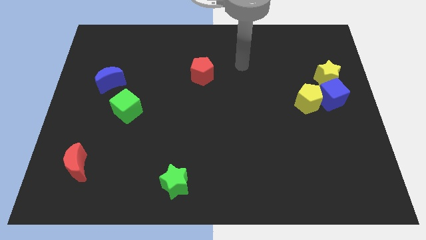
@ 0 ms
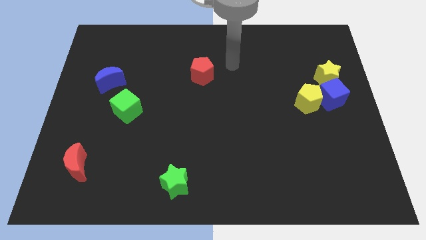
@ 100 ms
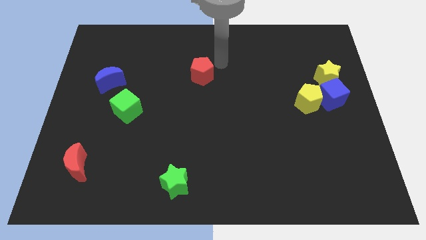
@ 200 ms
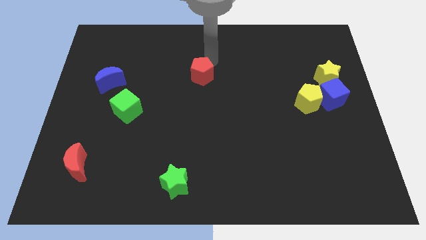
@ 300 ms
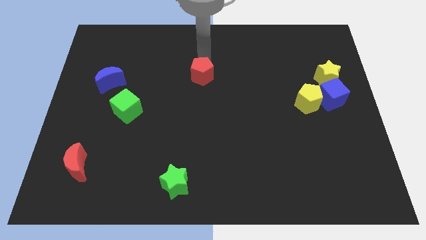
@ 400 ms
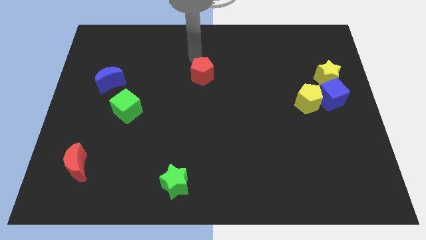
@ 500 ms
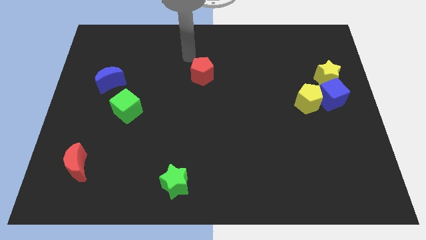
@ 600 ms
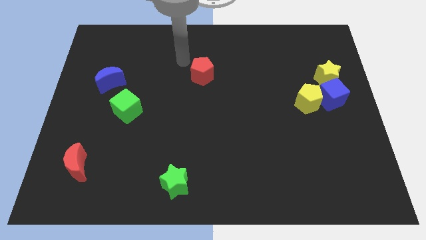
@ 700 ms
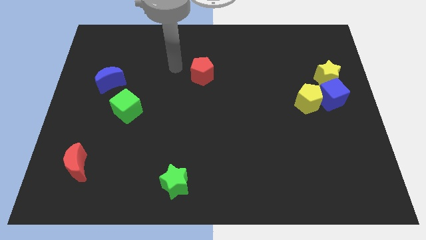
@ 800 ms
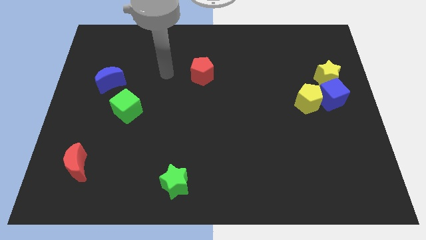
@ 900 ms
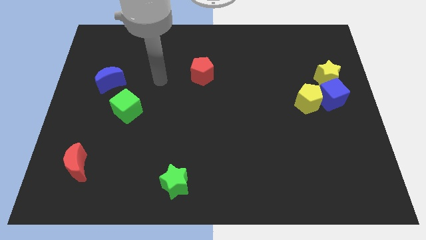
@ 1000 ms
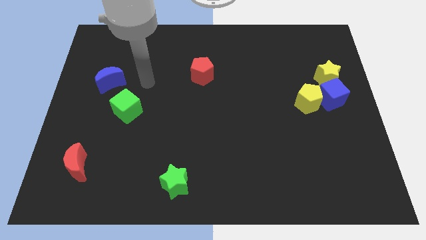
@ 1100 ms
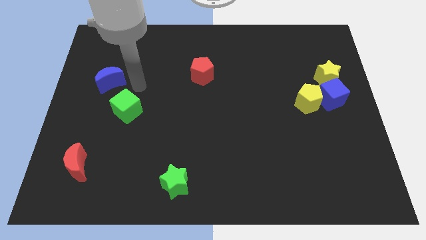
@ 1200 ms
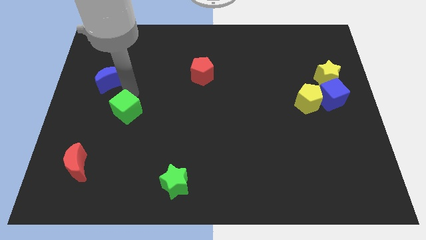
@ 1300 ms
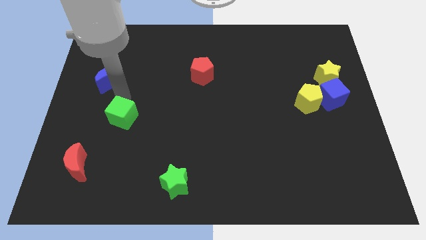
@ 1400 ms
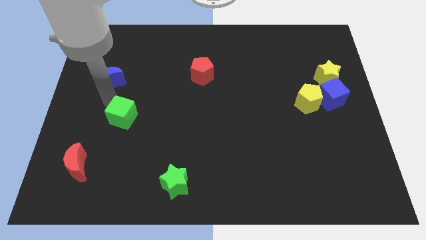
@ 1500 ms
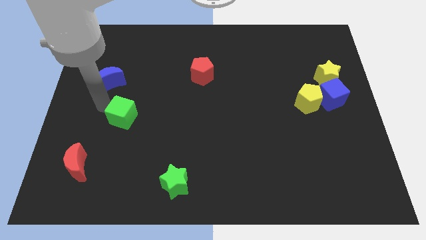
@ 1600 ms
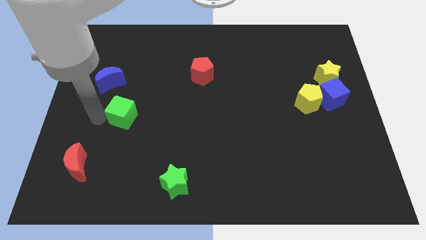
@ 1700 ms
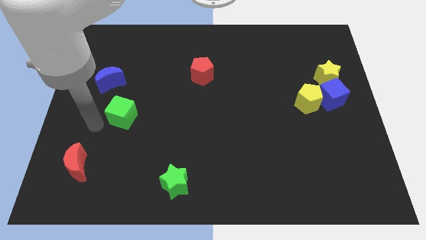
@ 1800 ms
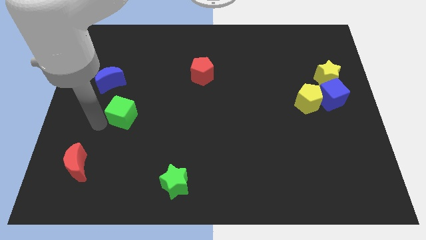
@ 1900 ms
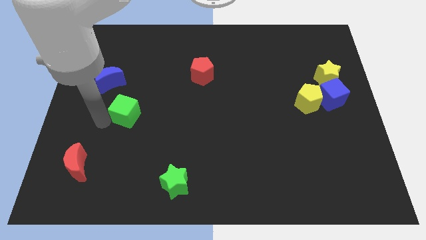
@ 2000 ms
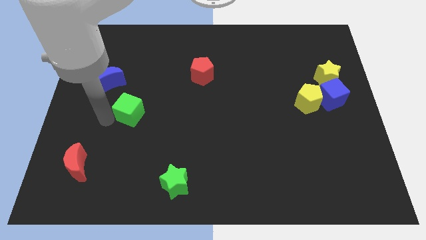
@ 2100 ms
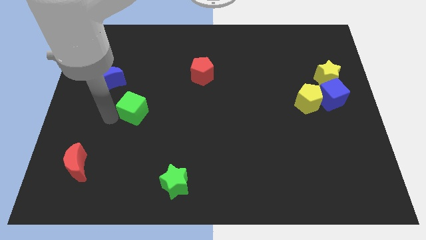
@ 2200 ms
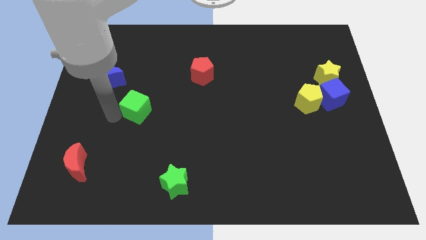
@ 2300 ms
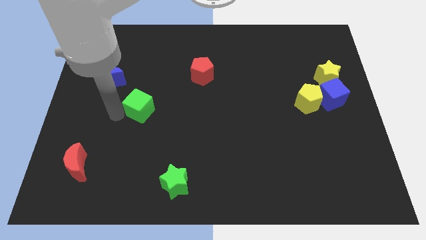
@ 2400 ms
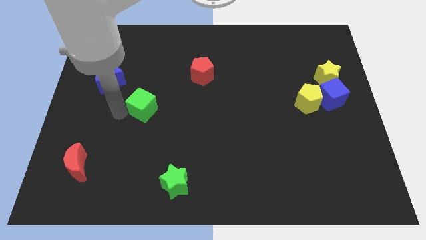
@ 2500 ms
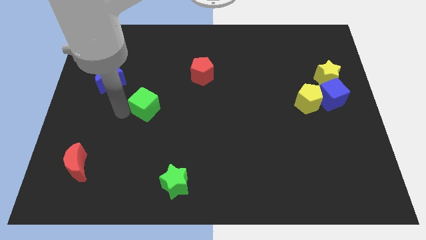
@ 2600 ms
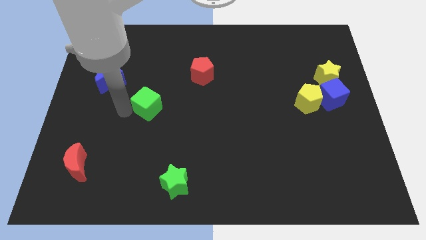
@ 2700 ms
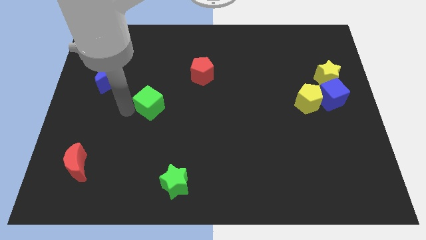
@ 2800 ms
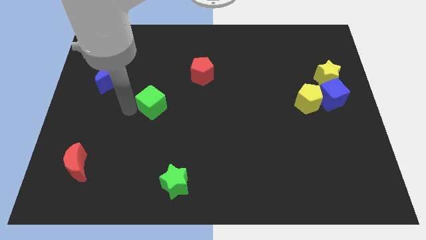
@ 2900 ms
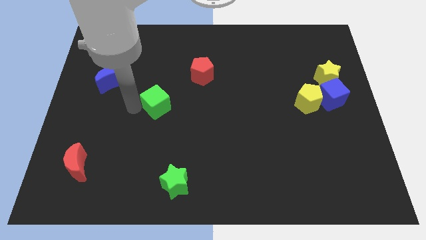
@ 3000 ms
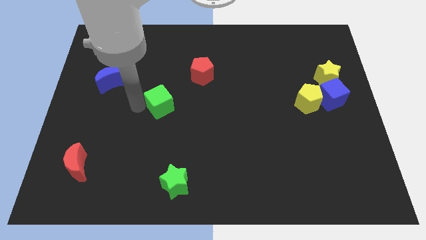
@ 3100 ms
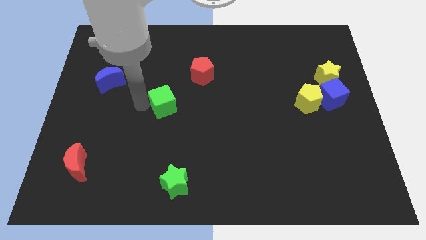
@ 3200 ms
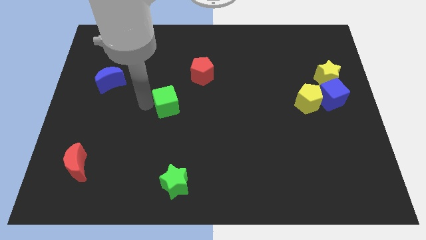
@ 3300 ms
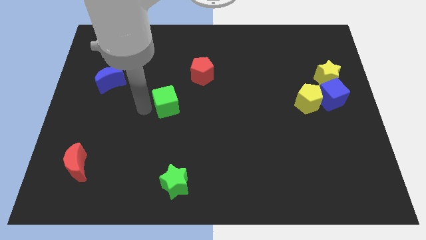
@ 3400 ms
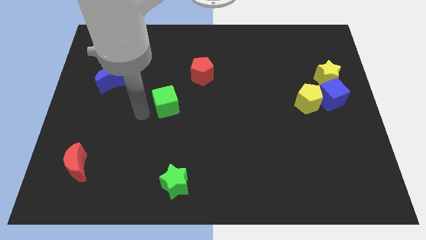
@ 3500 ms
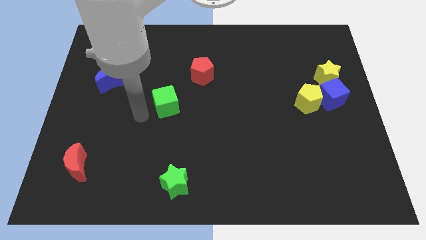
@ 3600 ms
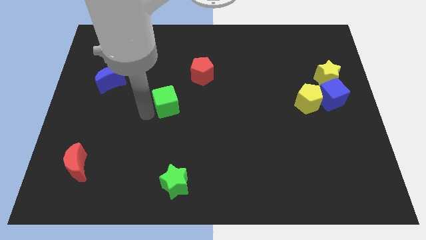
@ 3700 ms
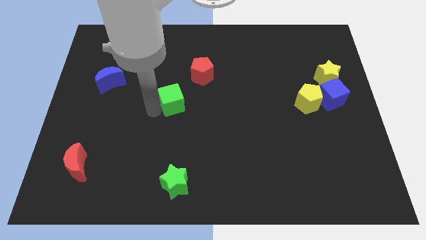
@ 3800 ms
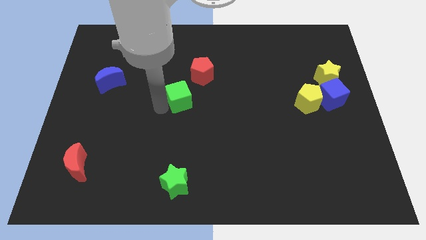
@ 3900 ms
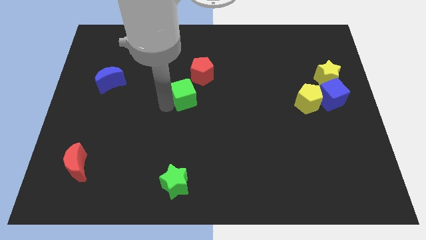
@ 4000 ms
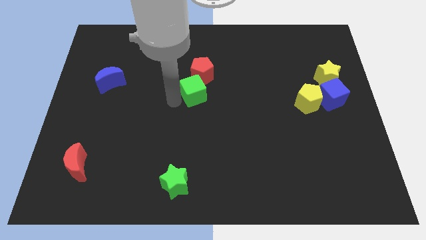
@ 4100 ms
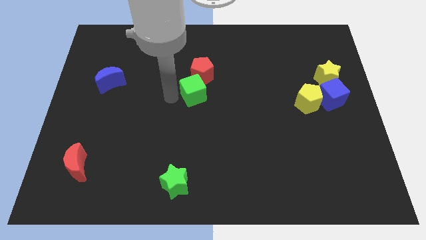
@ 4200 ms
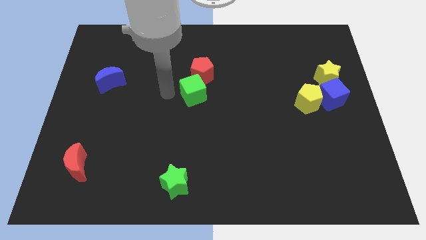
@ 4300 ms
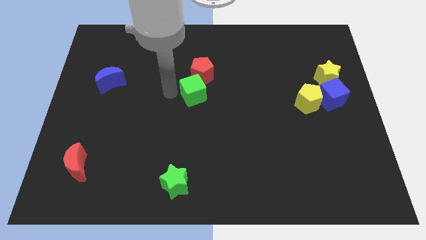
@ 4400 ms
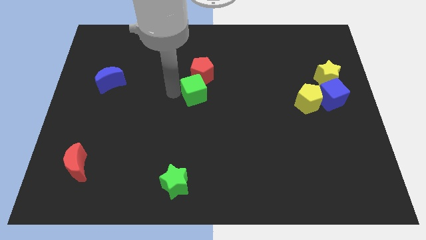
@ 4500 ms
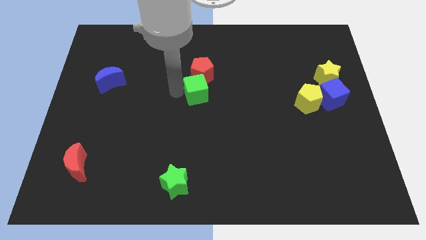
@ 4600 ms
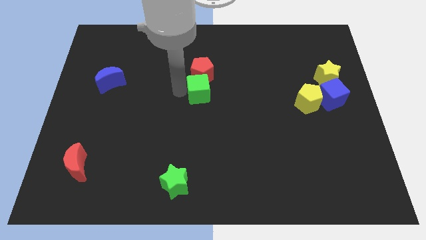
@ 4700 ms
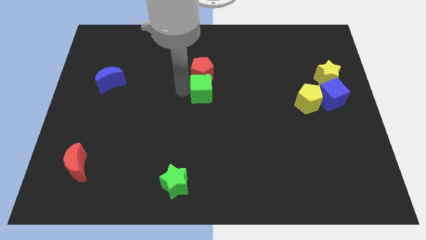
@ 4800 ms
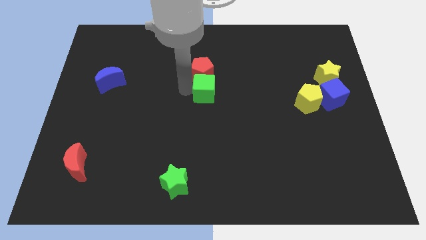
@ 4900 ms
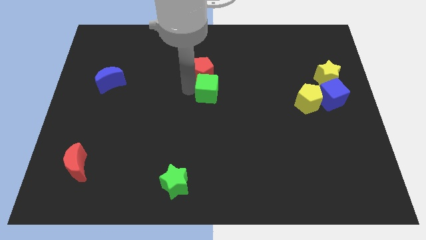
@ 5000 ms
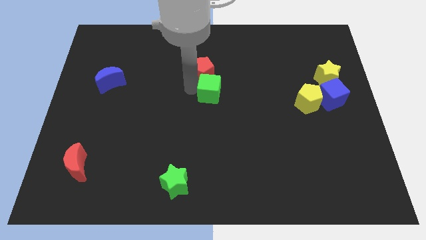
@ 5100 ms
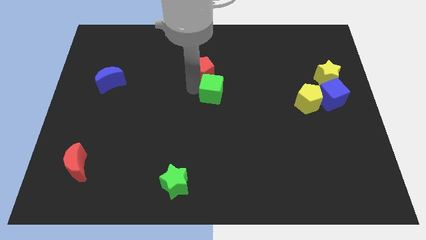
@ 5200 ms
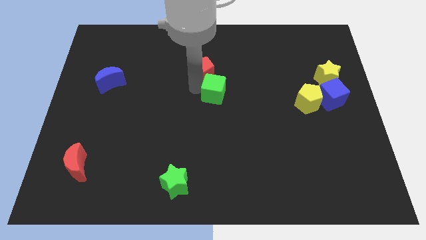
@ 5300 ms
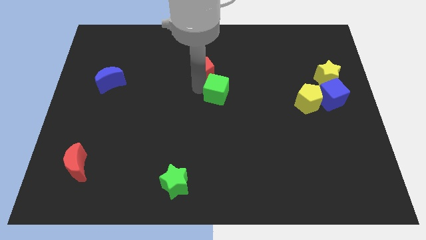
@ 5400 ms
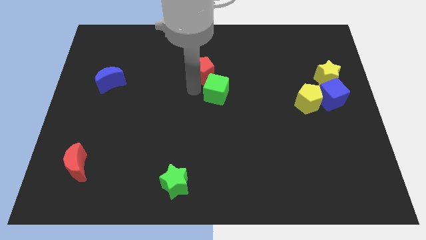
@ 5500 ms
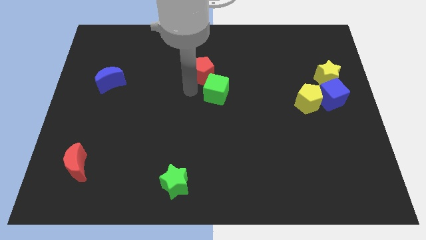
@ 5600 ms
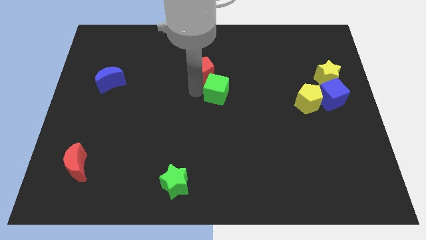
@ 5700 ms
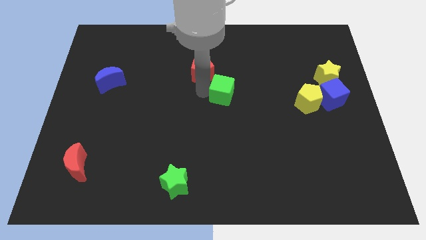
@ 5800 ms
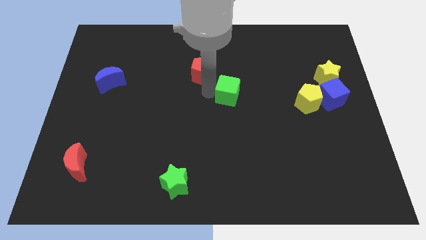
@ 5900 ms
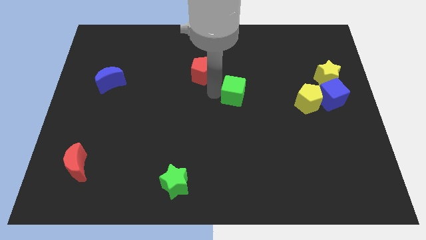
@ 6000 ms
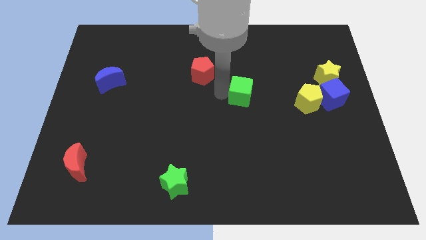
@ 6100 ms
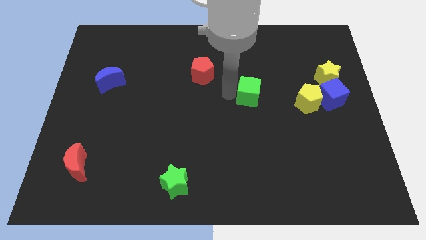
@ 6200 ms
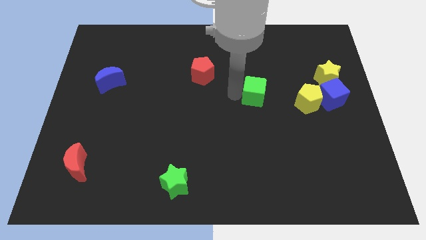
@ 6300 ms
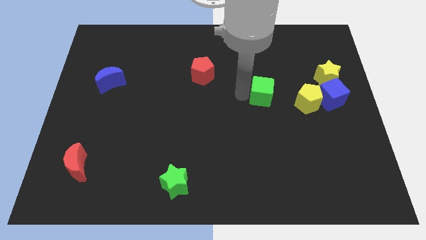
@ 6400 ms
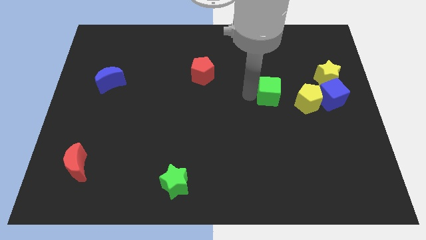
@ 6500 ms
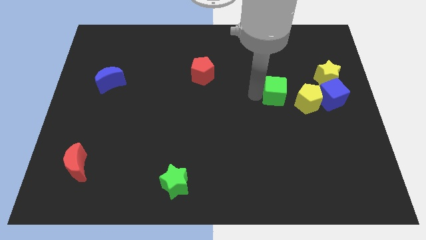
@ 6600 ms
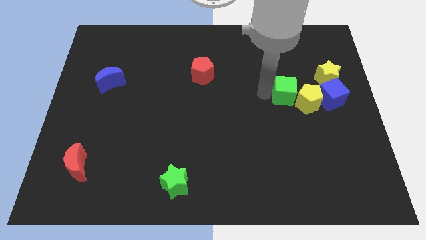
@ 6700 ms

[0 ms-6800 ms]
put the green cube next to the yellow pentagon

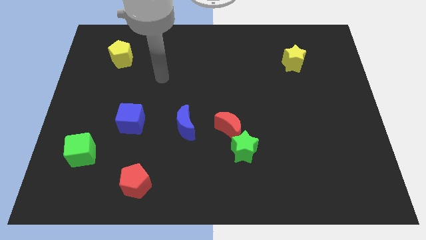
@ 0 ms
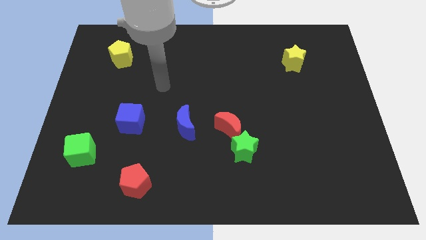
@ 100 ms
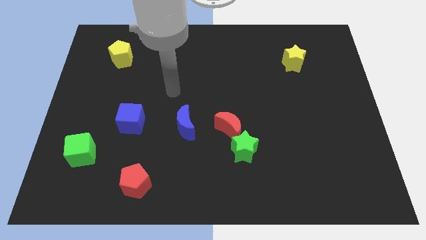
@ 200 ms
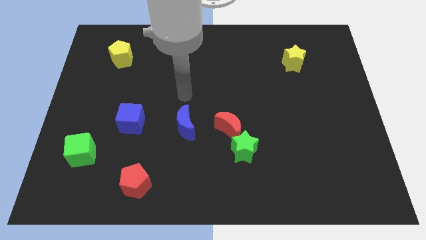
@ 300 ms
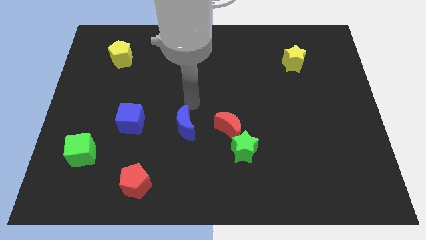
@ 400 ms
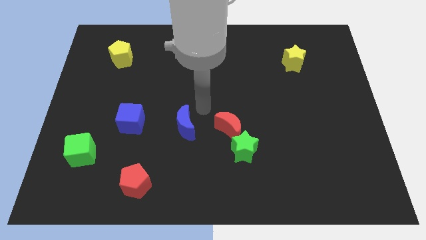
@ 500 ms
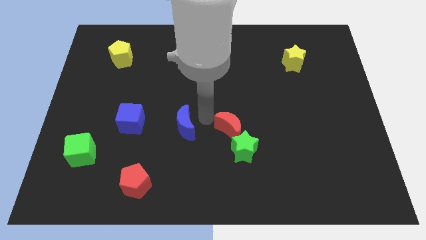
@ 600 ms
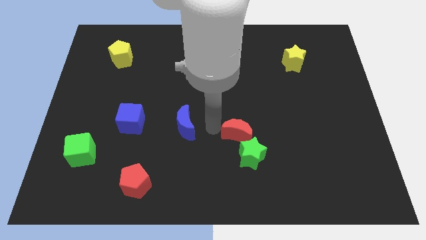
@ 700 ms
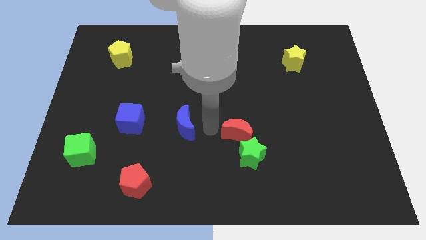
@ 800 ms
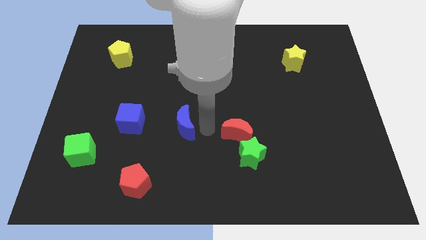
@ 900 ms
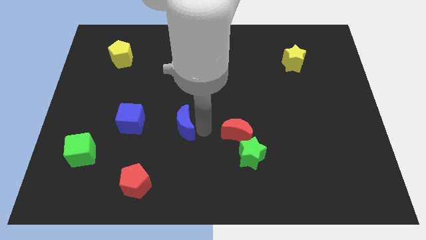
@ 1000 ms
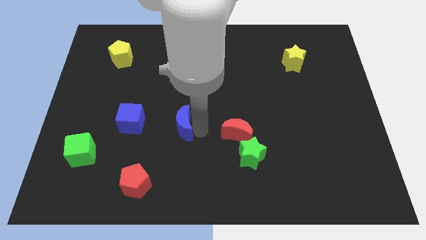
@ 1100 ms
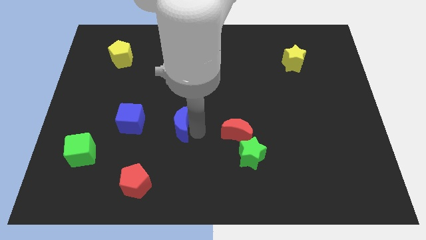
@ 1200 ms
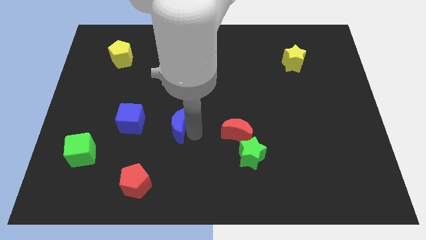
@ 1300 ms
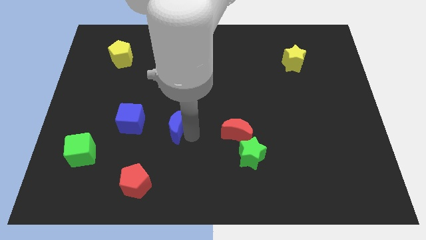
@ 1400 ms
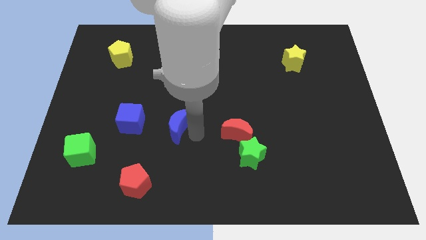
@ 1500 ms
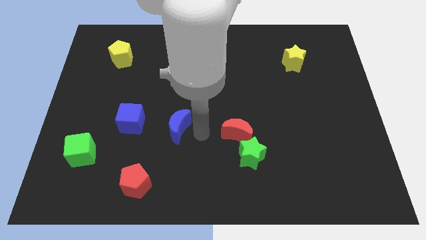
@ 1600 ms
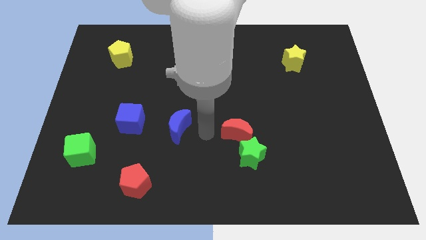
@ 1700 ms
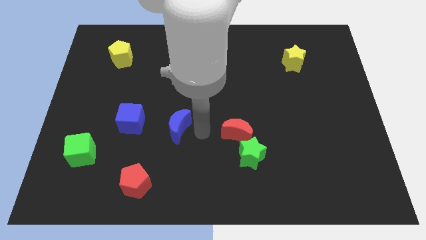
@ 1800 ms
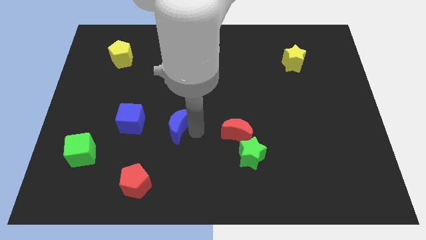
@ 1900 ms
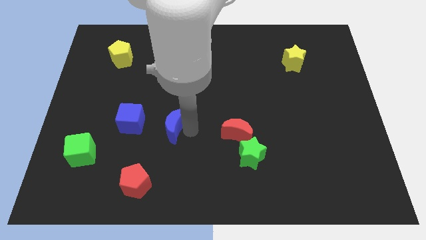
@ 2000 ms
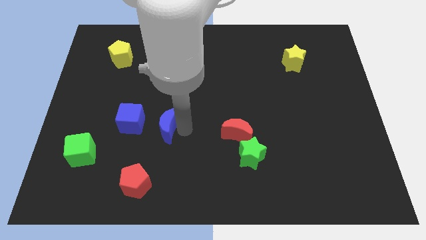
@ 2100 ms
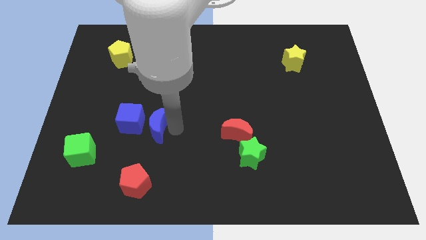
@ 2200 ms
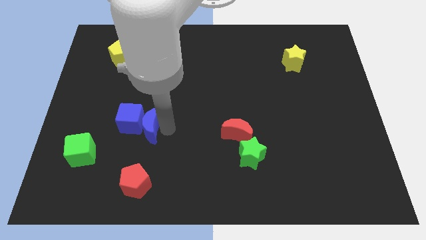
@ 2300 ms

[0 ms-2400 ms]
slide the blue moon next to the blue cube
